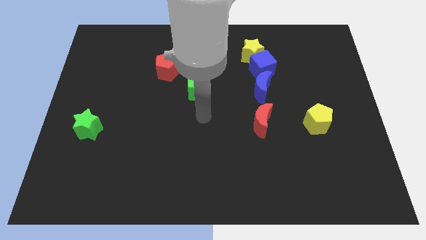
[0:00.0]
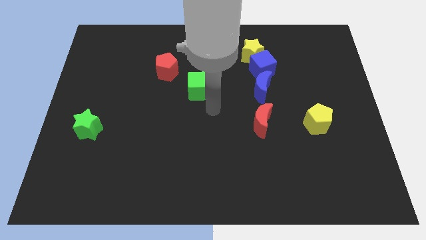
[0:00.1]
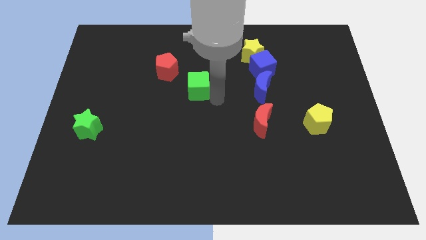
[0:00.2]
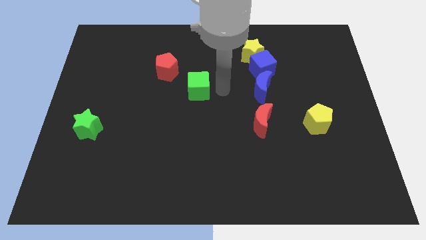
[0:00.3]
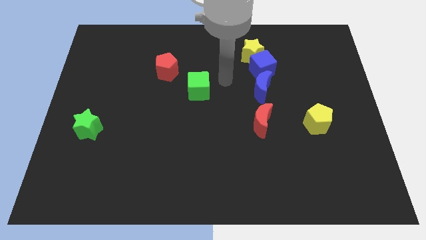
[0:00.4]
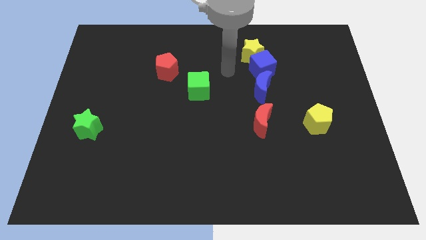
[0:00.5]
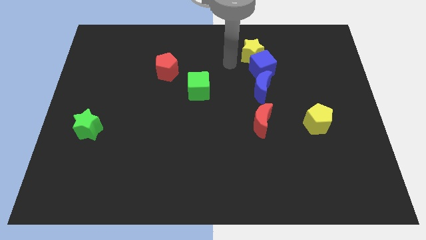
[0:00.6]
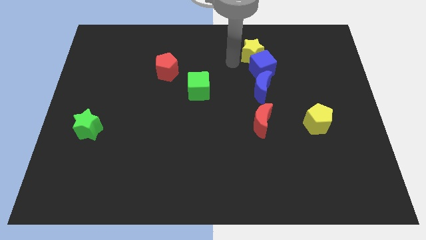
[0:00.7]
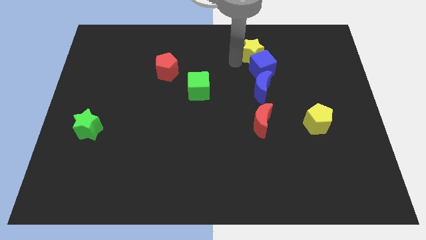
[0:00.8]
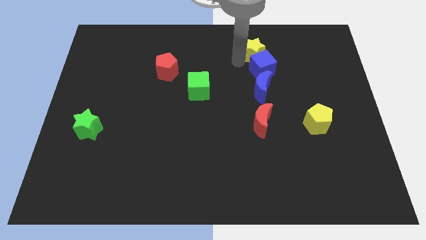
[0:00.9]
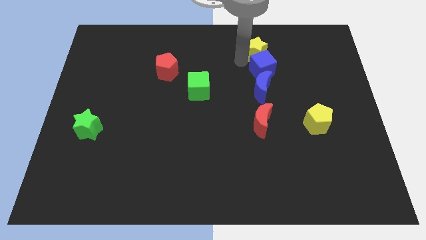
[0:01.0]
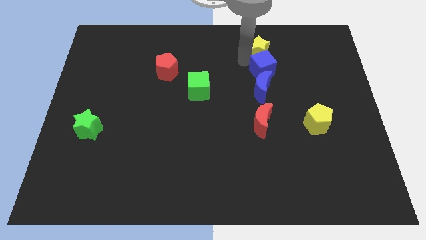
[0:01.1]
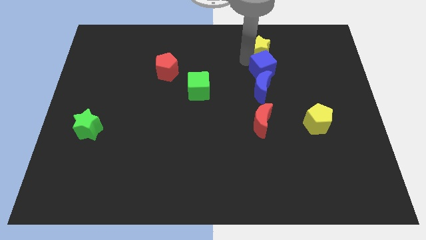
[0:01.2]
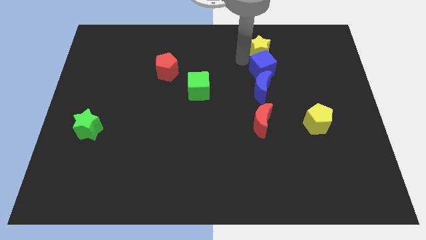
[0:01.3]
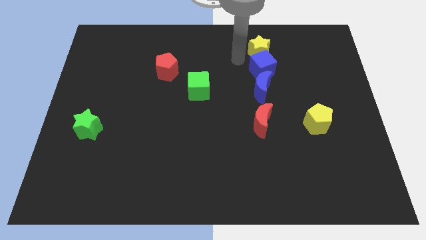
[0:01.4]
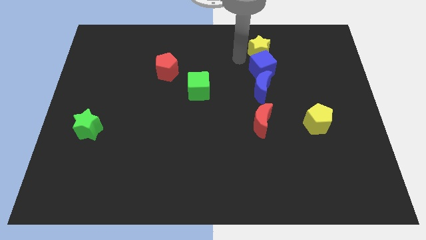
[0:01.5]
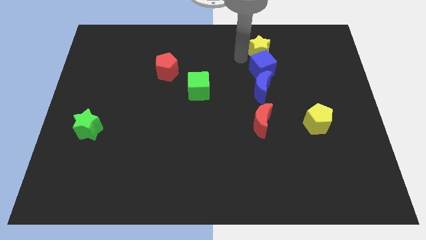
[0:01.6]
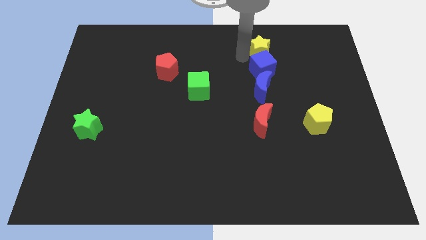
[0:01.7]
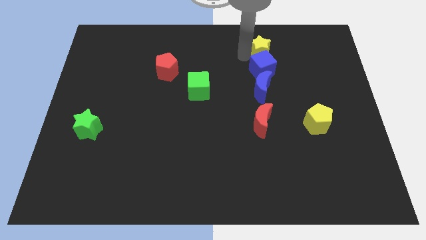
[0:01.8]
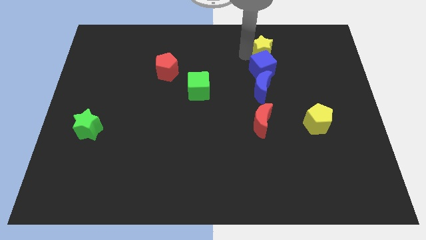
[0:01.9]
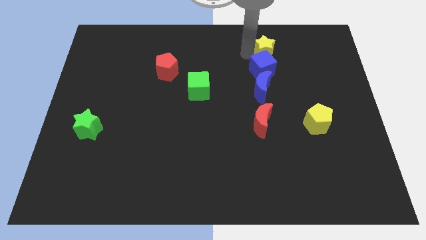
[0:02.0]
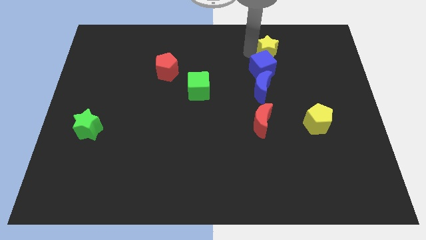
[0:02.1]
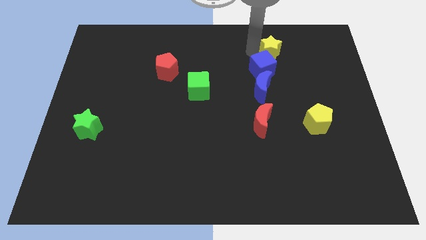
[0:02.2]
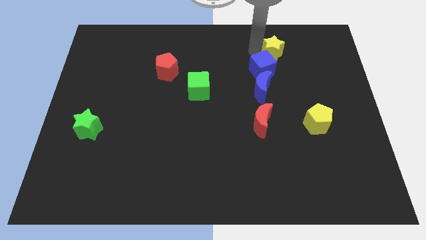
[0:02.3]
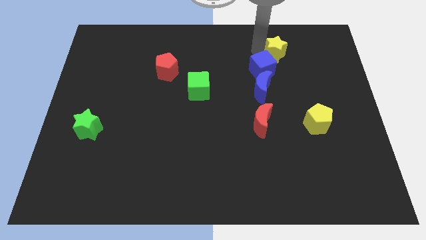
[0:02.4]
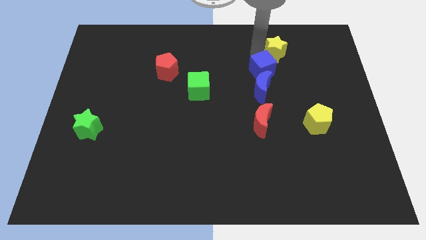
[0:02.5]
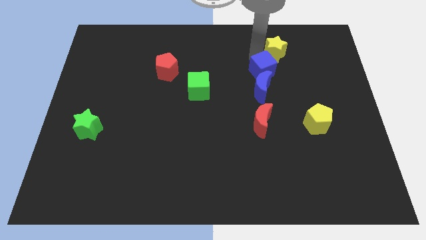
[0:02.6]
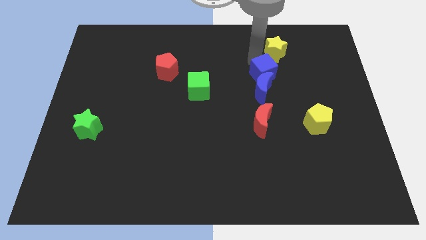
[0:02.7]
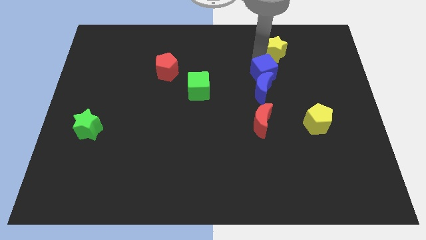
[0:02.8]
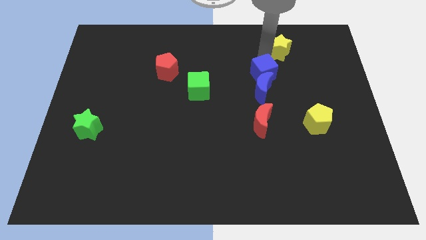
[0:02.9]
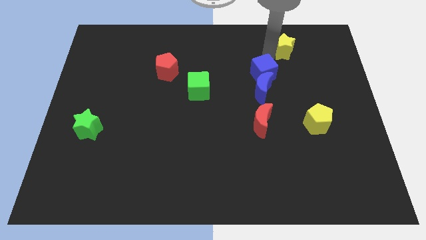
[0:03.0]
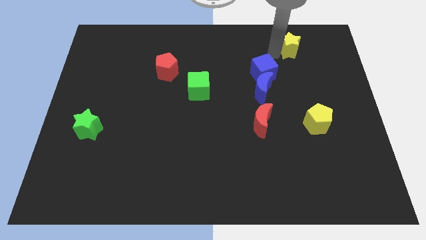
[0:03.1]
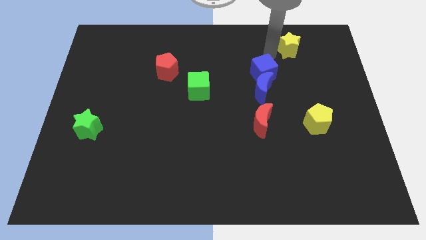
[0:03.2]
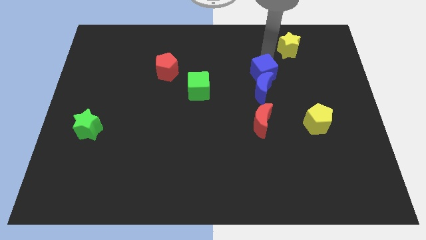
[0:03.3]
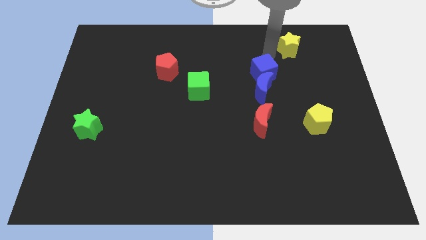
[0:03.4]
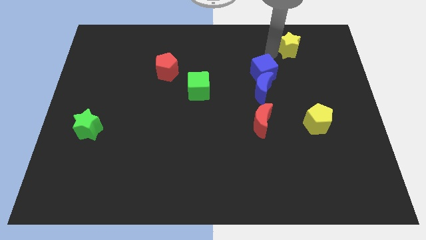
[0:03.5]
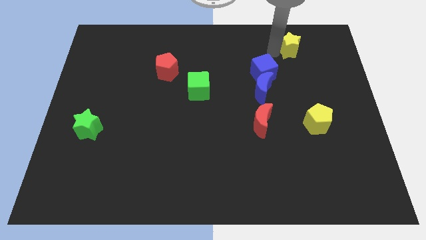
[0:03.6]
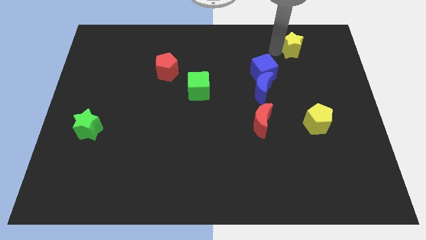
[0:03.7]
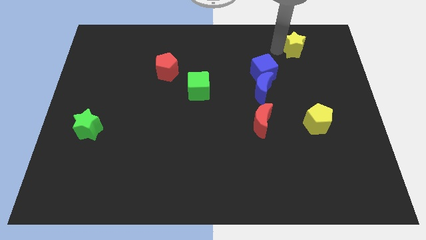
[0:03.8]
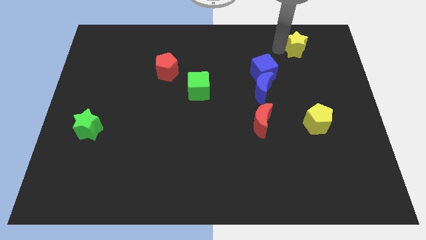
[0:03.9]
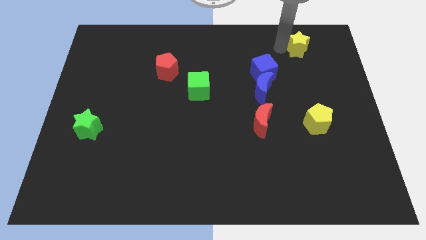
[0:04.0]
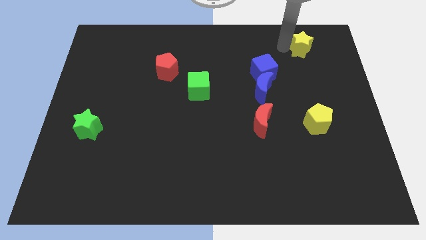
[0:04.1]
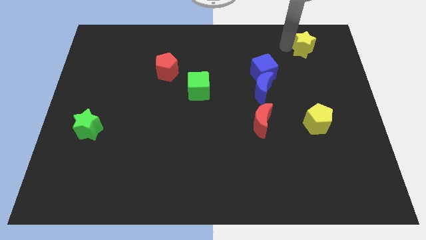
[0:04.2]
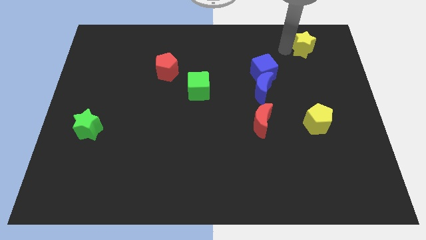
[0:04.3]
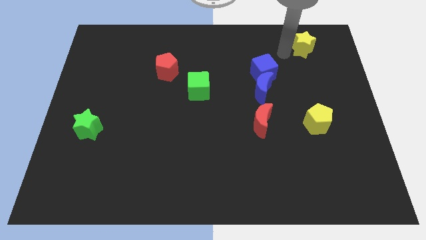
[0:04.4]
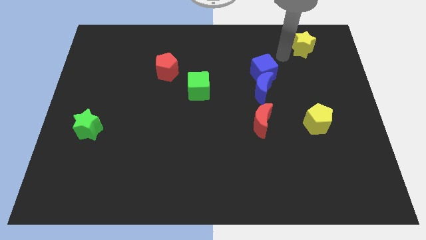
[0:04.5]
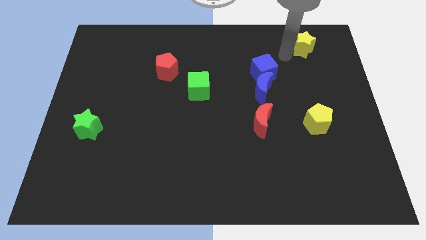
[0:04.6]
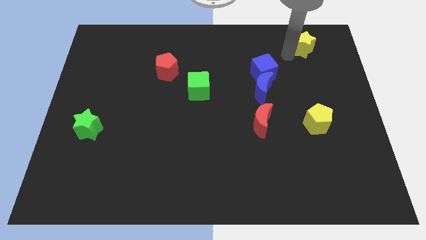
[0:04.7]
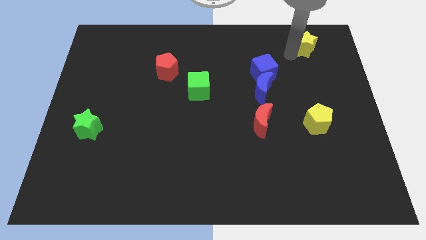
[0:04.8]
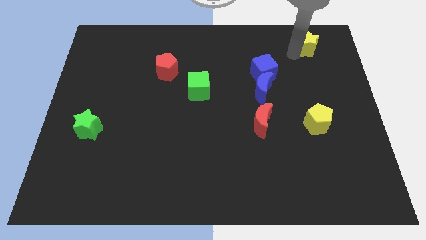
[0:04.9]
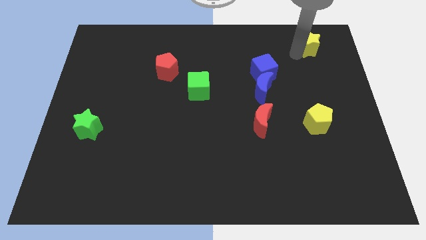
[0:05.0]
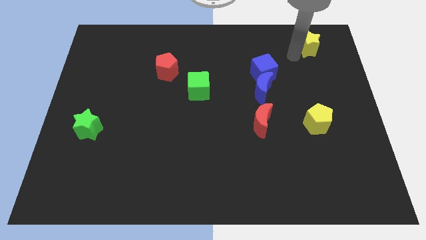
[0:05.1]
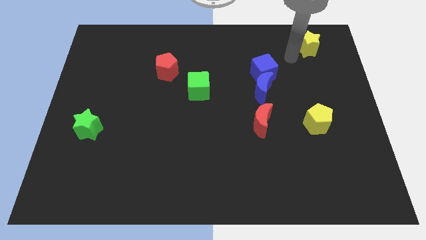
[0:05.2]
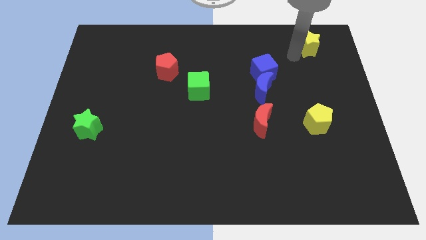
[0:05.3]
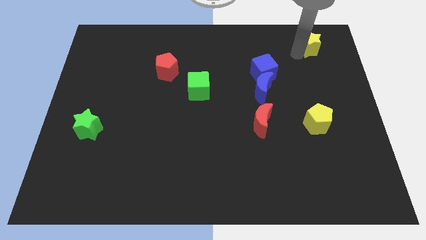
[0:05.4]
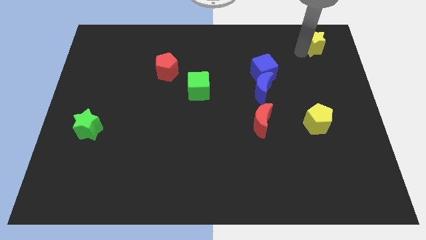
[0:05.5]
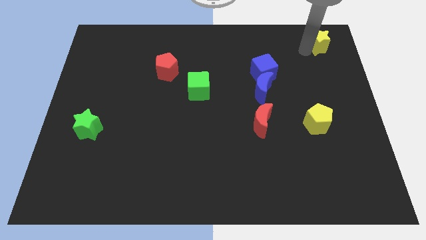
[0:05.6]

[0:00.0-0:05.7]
push the yellow star to the top right corner

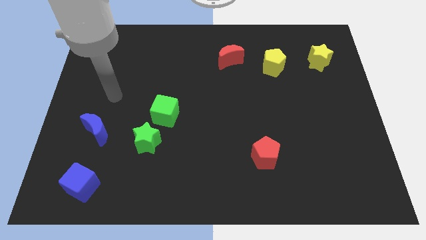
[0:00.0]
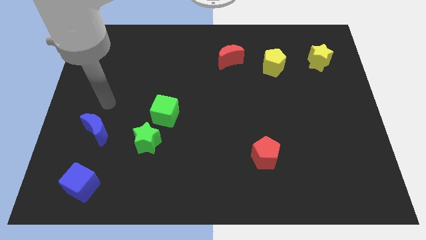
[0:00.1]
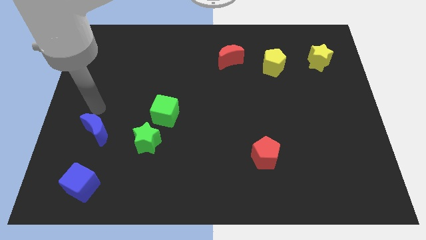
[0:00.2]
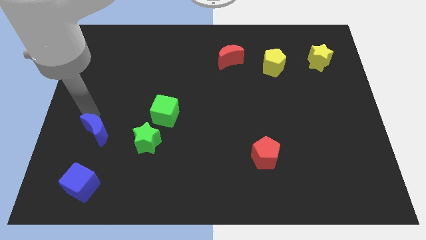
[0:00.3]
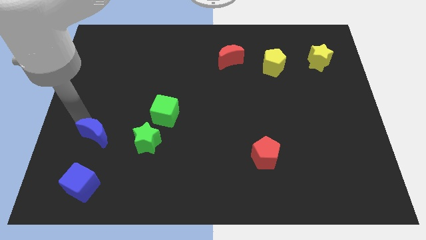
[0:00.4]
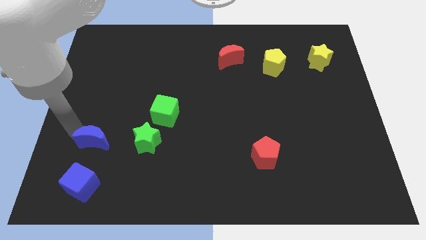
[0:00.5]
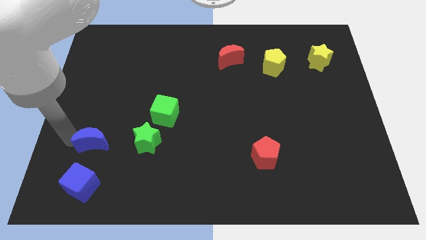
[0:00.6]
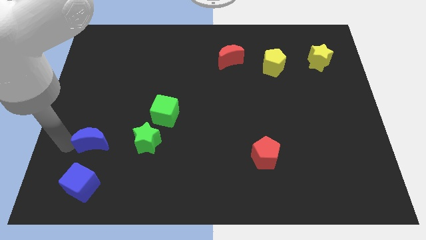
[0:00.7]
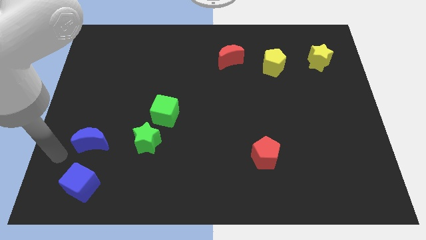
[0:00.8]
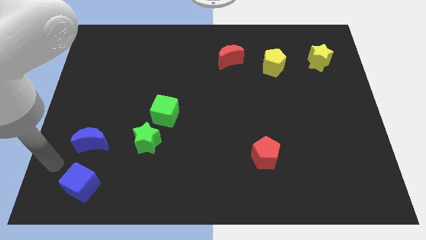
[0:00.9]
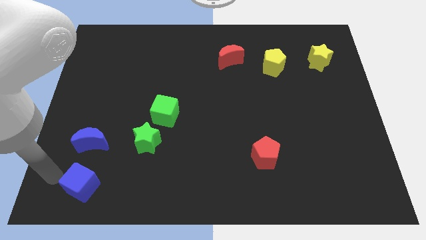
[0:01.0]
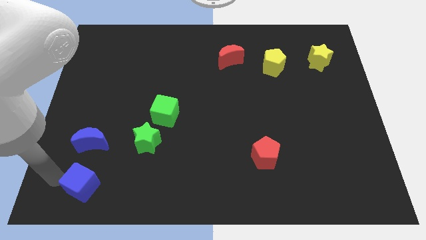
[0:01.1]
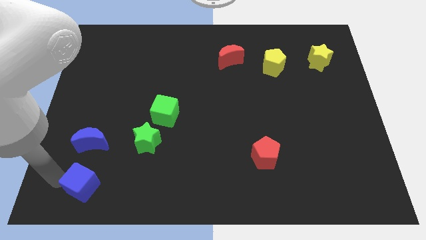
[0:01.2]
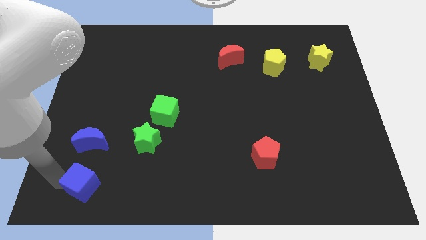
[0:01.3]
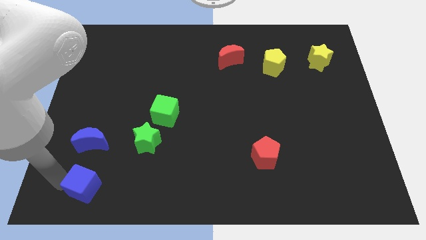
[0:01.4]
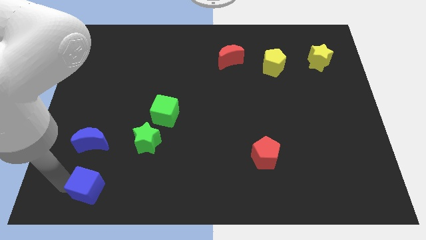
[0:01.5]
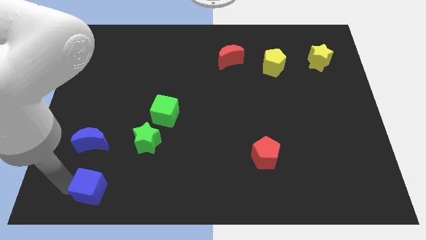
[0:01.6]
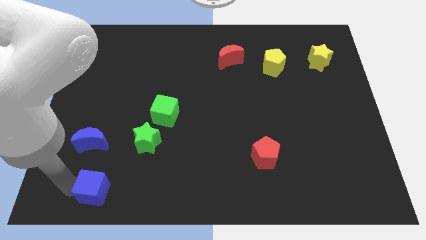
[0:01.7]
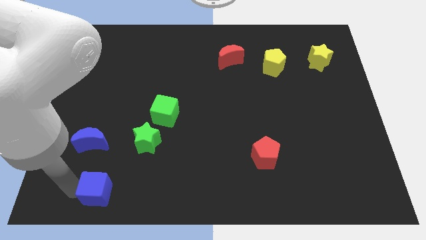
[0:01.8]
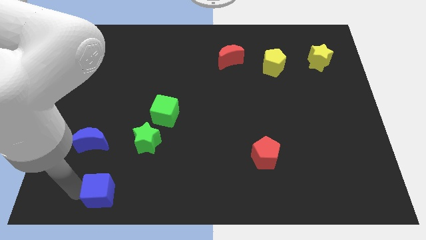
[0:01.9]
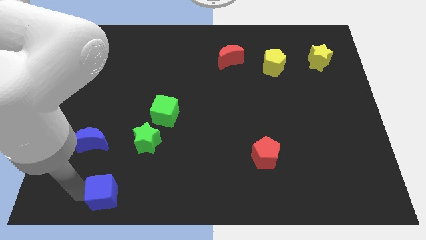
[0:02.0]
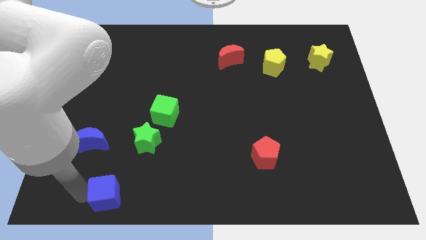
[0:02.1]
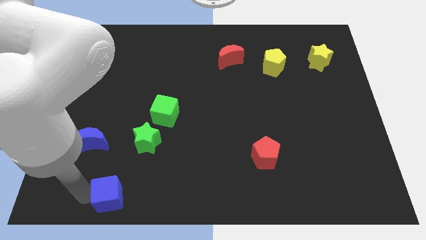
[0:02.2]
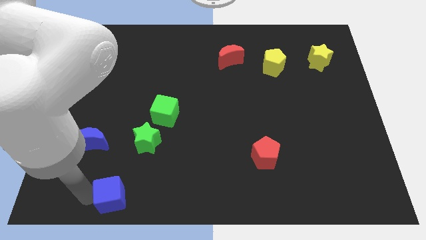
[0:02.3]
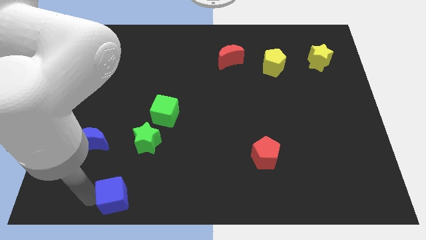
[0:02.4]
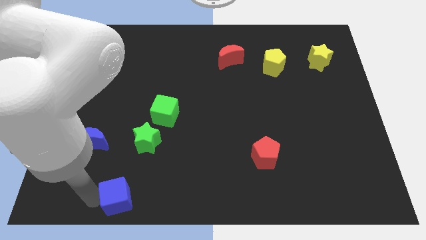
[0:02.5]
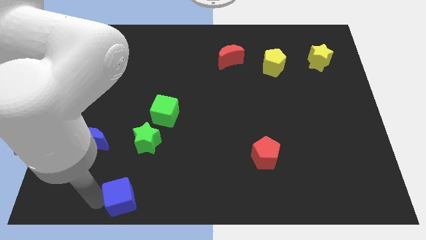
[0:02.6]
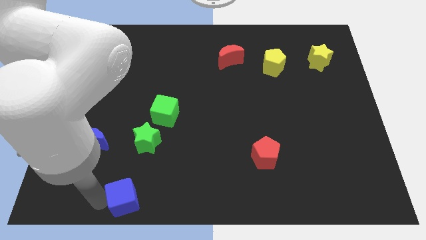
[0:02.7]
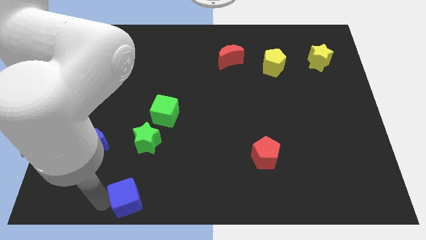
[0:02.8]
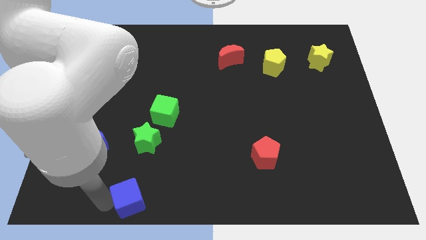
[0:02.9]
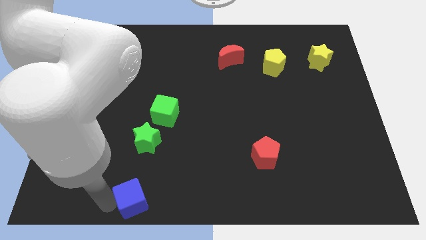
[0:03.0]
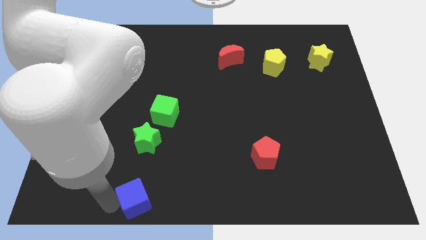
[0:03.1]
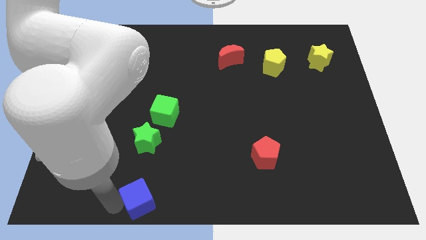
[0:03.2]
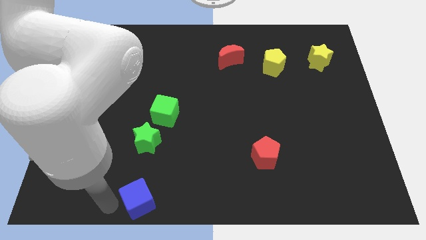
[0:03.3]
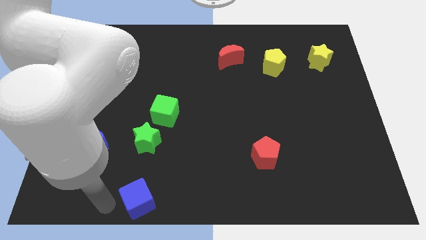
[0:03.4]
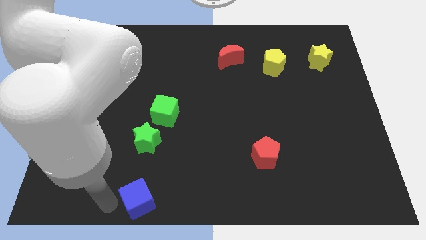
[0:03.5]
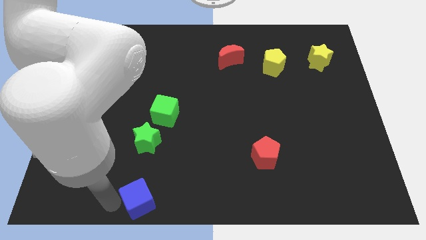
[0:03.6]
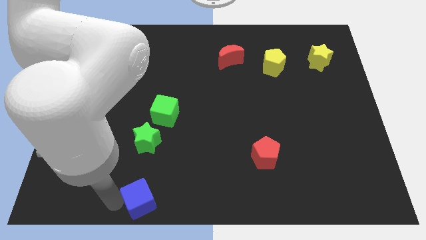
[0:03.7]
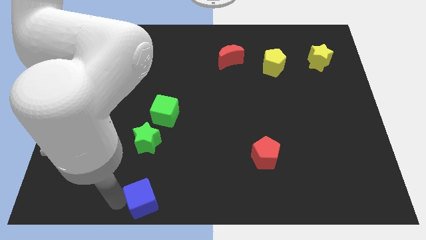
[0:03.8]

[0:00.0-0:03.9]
slide the blue cube to the bottom
